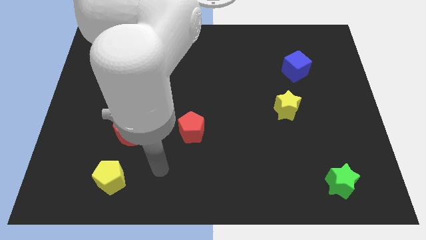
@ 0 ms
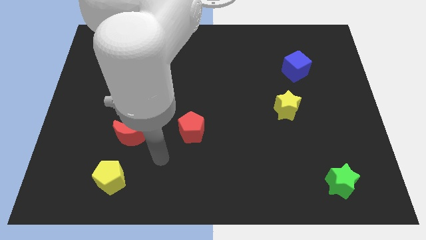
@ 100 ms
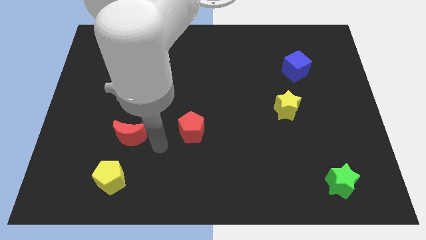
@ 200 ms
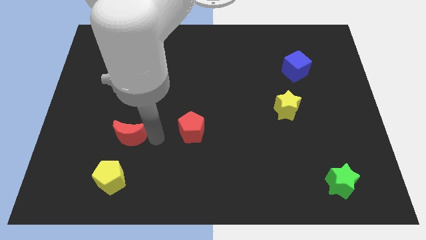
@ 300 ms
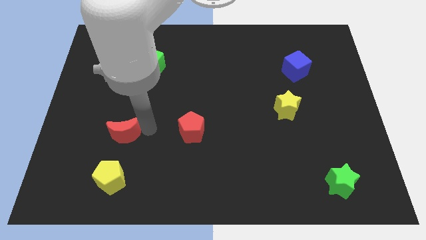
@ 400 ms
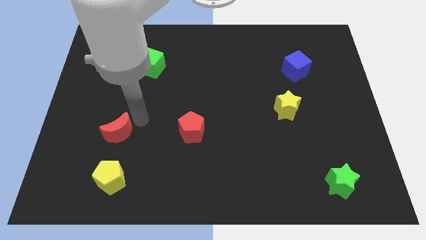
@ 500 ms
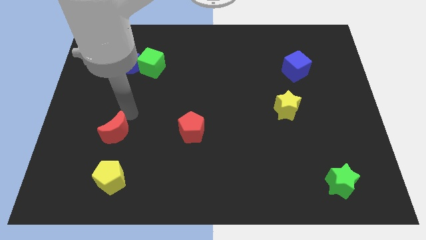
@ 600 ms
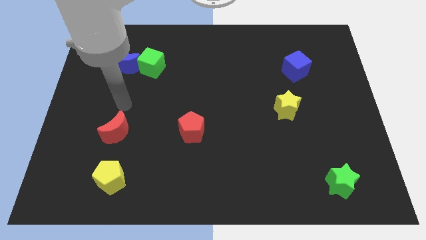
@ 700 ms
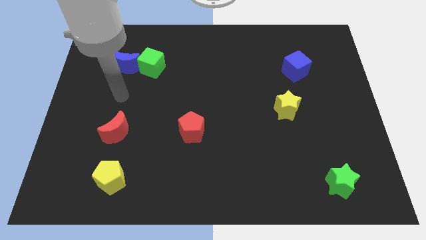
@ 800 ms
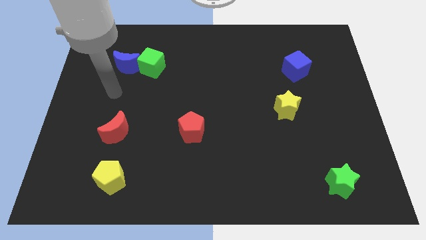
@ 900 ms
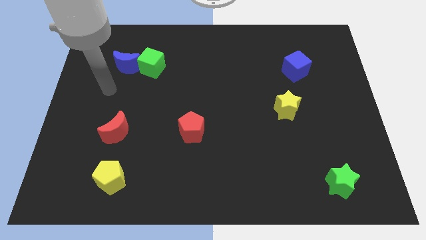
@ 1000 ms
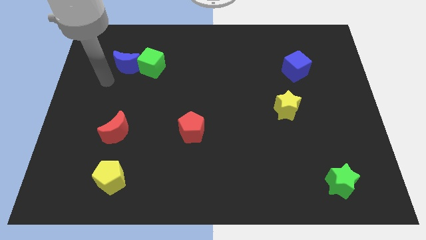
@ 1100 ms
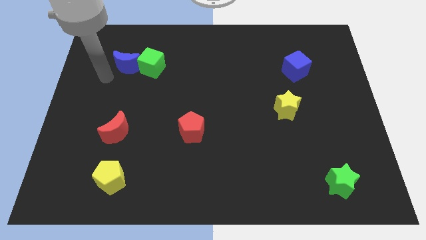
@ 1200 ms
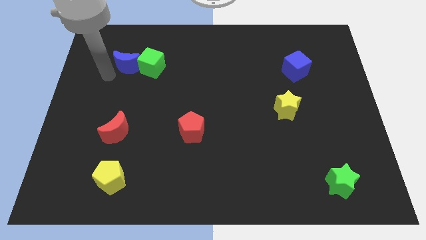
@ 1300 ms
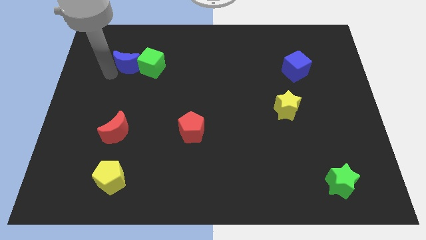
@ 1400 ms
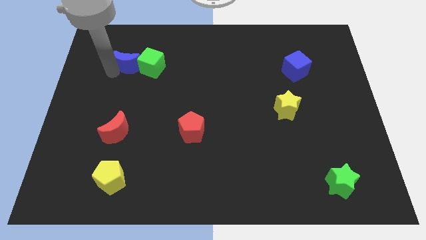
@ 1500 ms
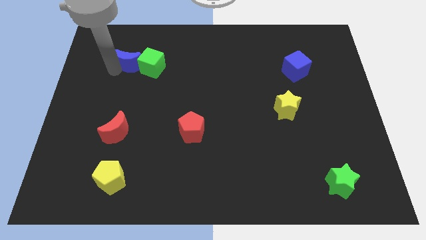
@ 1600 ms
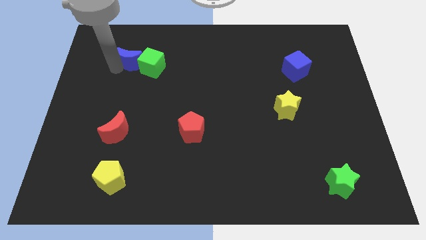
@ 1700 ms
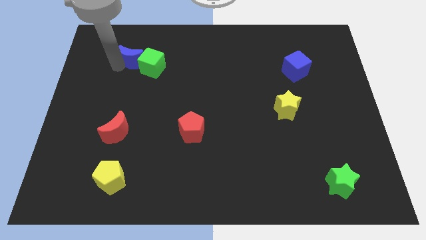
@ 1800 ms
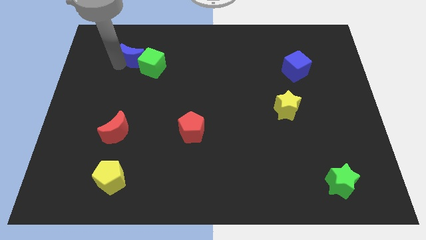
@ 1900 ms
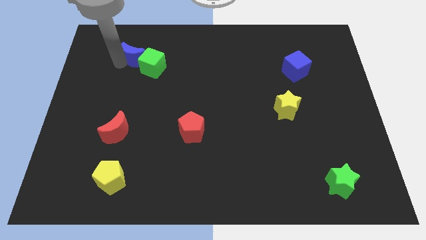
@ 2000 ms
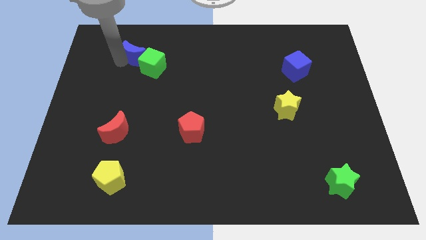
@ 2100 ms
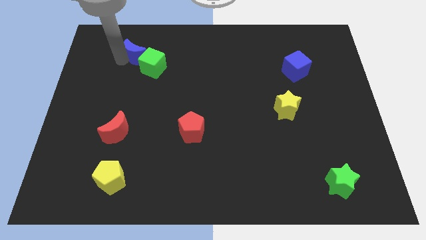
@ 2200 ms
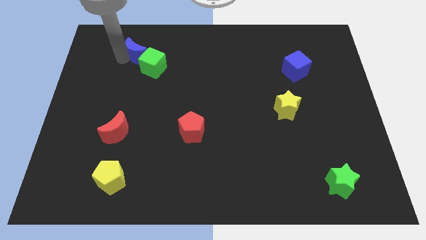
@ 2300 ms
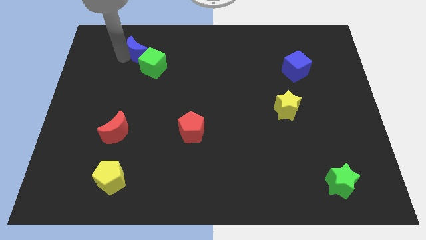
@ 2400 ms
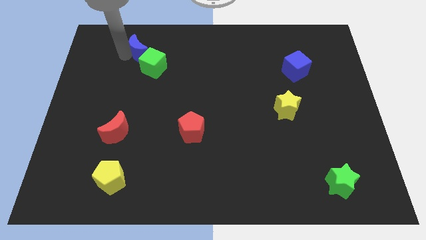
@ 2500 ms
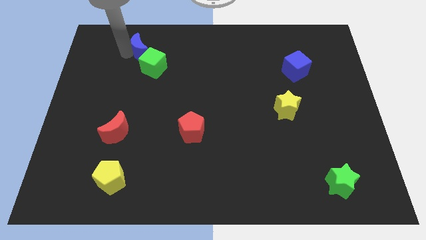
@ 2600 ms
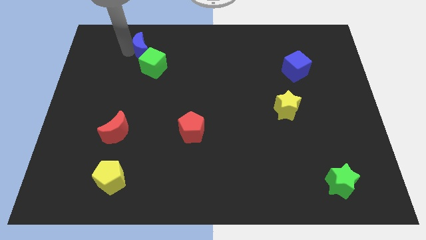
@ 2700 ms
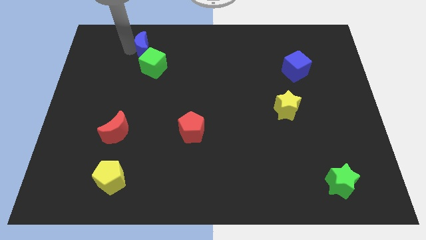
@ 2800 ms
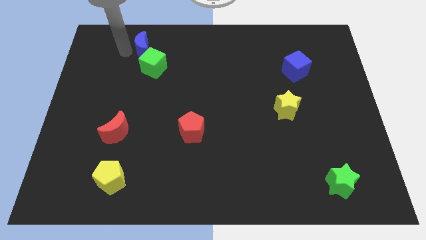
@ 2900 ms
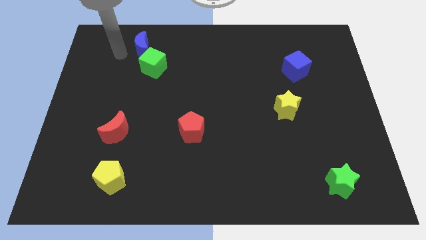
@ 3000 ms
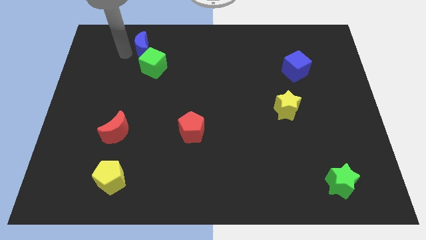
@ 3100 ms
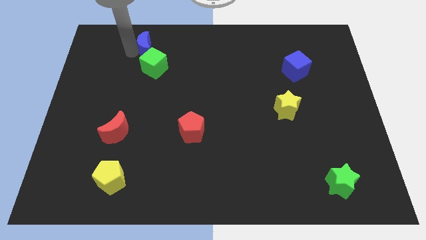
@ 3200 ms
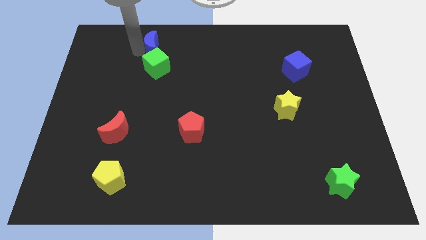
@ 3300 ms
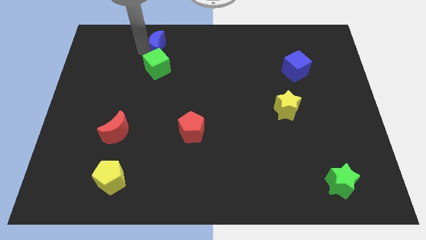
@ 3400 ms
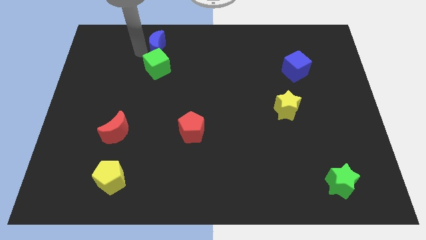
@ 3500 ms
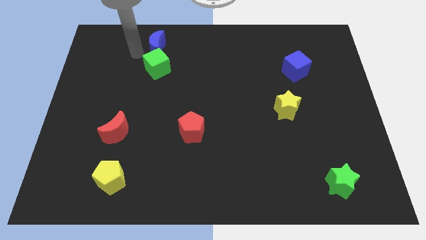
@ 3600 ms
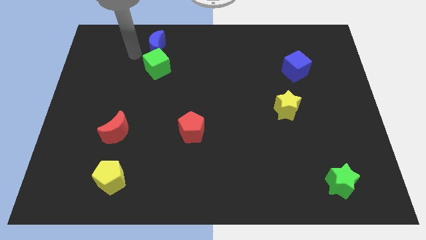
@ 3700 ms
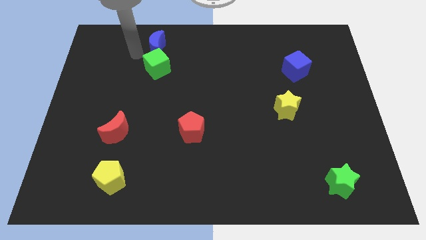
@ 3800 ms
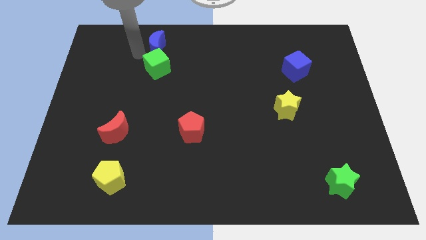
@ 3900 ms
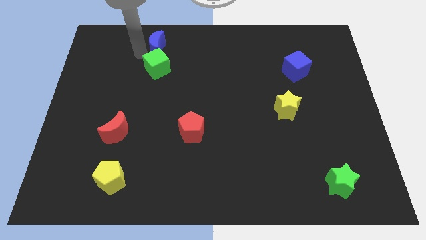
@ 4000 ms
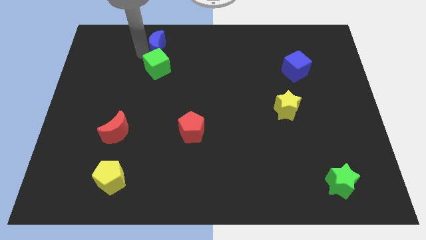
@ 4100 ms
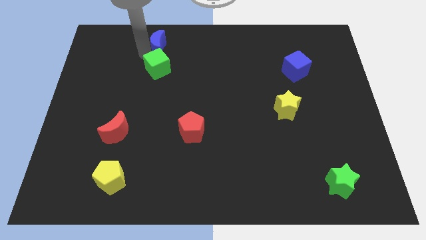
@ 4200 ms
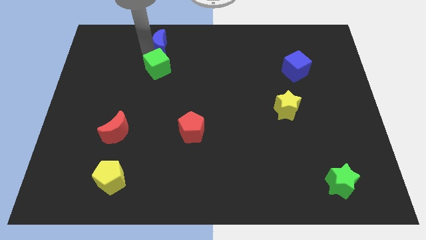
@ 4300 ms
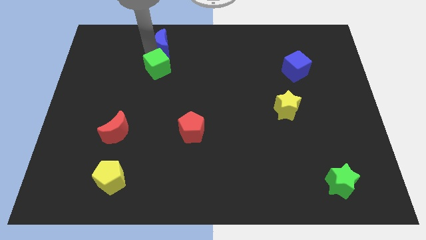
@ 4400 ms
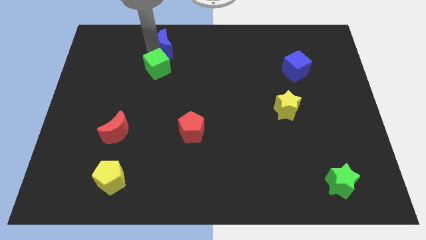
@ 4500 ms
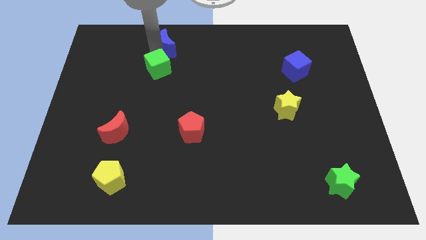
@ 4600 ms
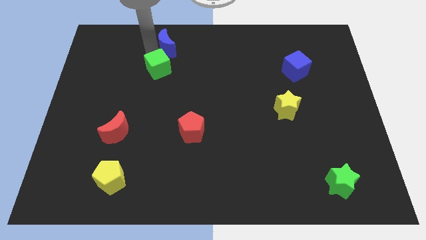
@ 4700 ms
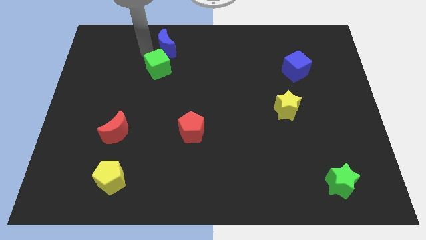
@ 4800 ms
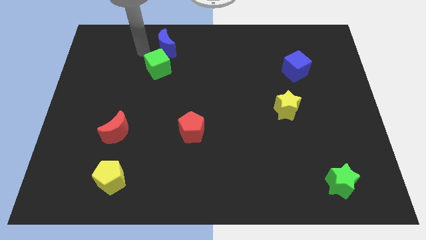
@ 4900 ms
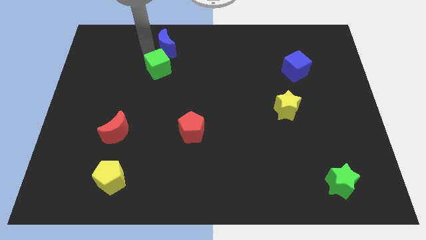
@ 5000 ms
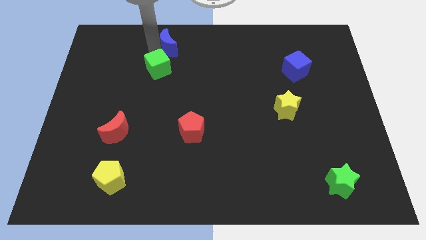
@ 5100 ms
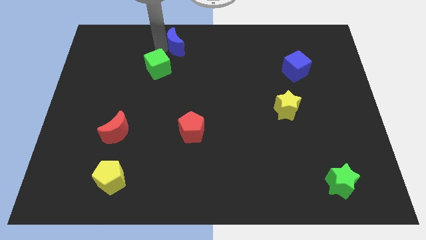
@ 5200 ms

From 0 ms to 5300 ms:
move the blue moon to the top side

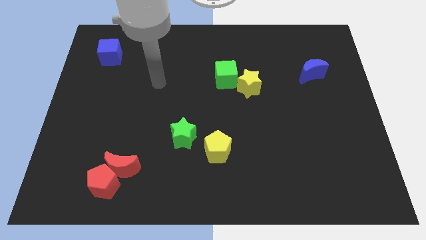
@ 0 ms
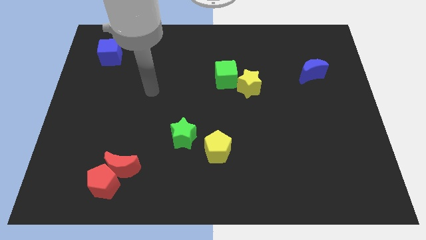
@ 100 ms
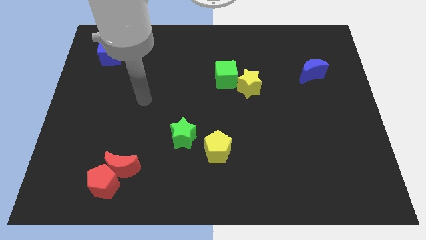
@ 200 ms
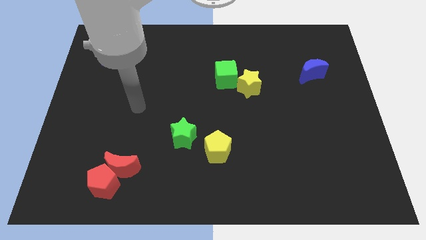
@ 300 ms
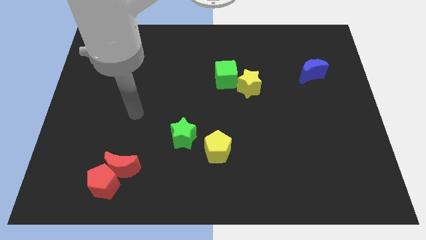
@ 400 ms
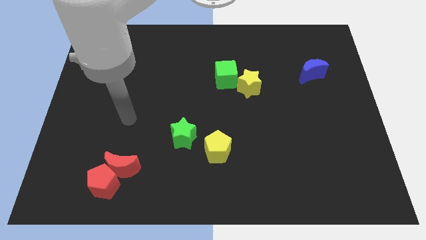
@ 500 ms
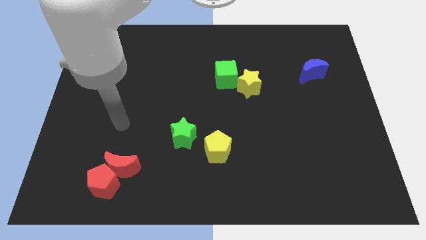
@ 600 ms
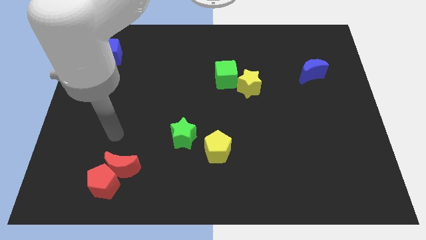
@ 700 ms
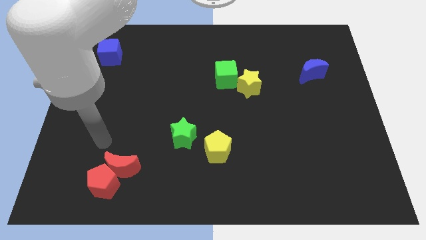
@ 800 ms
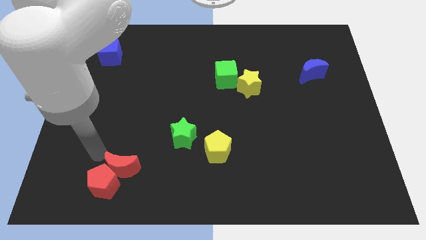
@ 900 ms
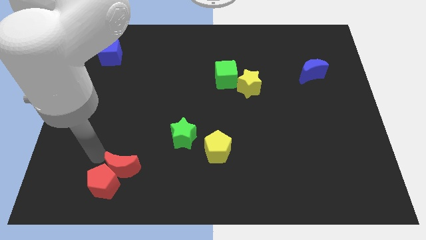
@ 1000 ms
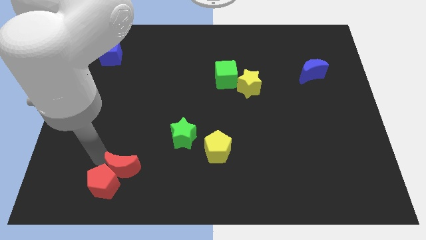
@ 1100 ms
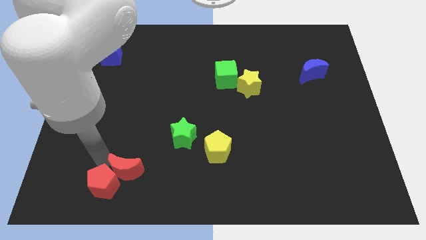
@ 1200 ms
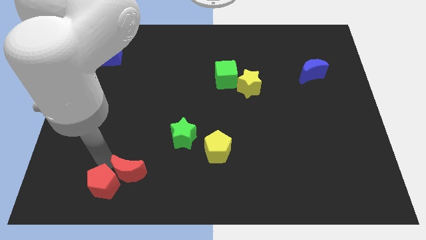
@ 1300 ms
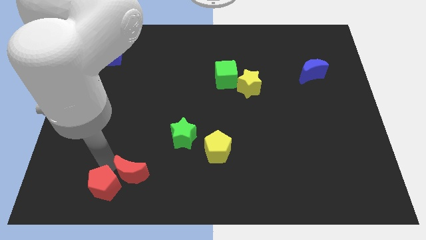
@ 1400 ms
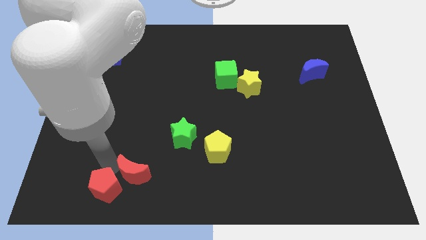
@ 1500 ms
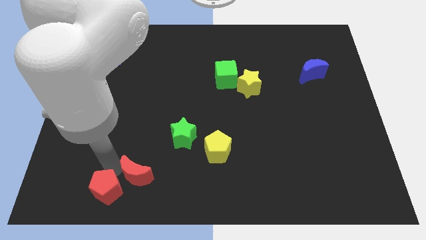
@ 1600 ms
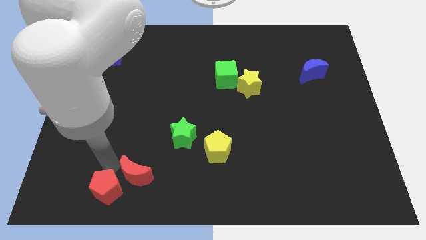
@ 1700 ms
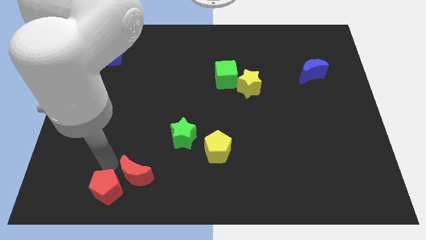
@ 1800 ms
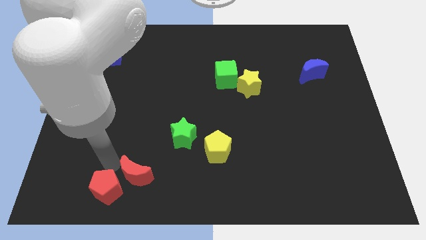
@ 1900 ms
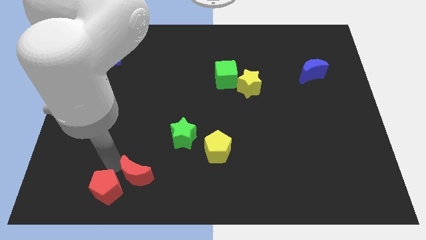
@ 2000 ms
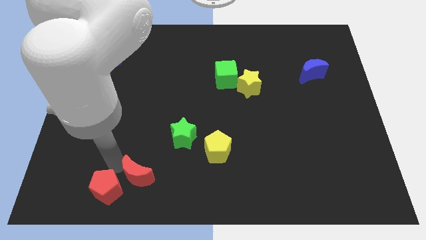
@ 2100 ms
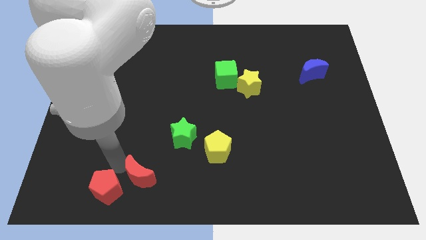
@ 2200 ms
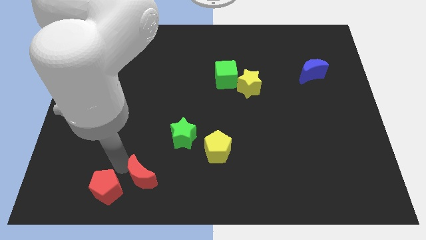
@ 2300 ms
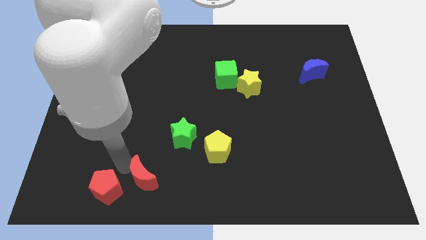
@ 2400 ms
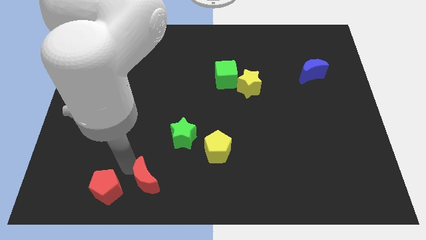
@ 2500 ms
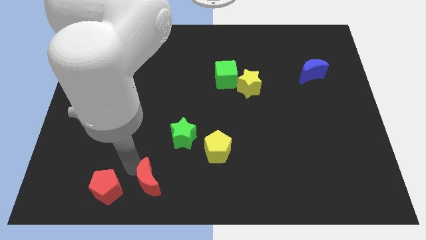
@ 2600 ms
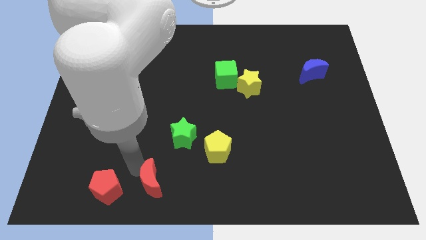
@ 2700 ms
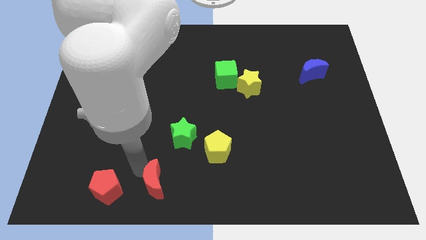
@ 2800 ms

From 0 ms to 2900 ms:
move the red moon to the bottom
